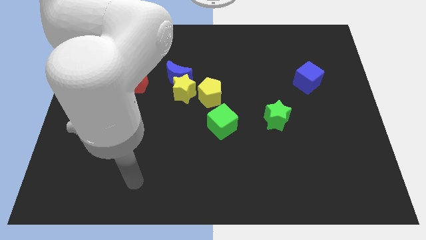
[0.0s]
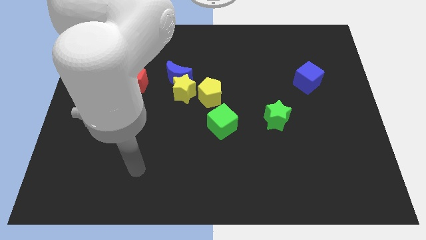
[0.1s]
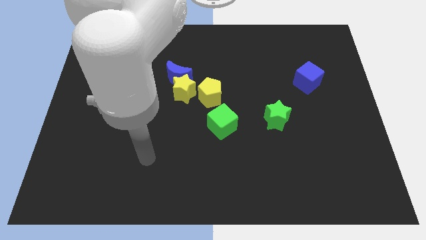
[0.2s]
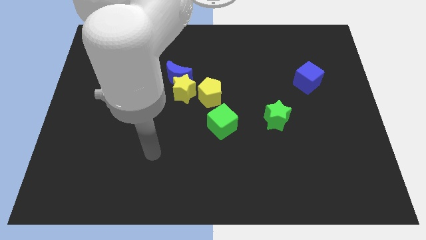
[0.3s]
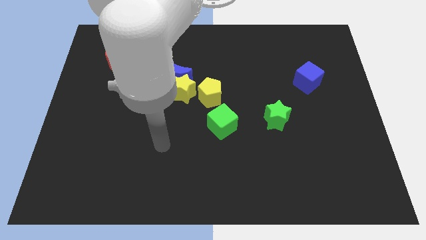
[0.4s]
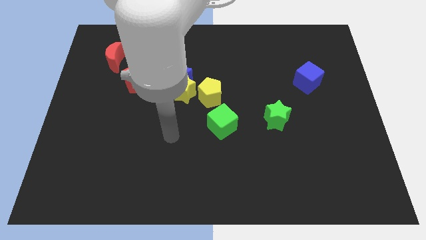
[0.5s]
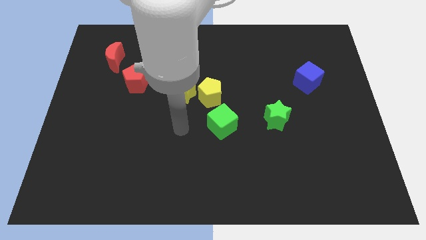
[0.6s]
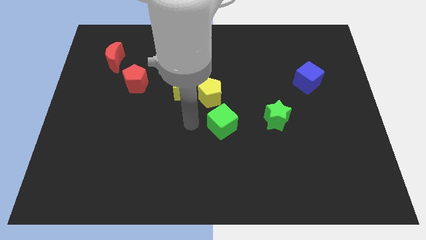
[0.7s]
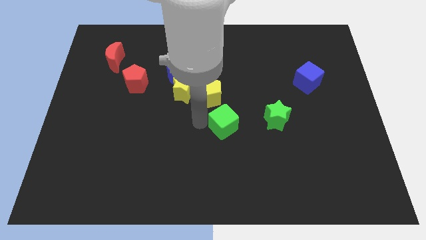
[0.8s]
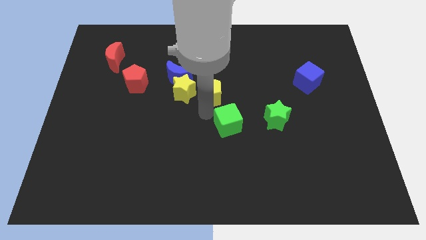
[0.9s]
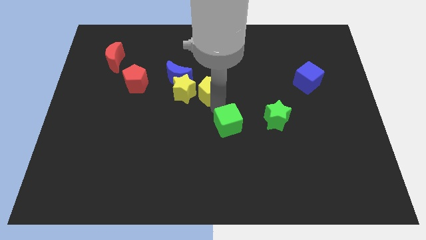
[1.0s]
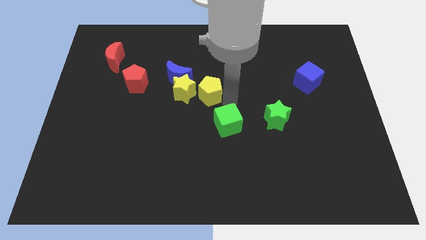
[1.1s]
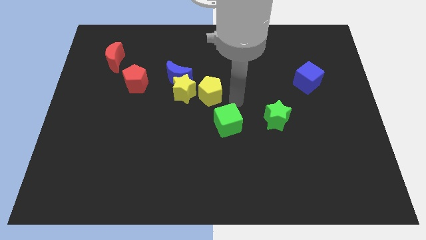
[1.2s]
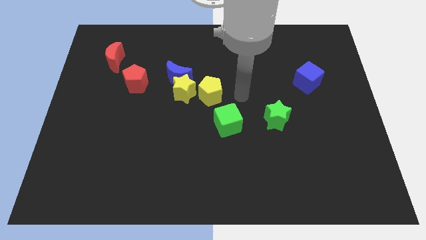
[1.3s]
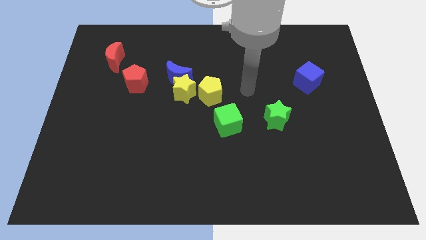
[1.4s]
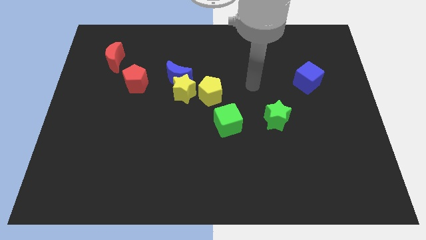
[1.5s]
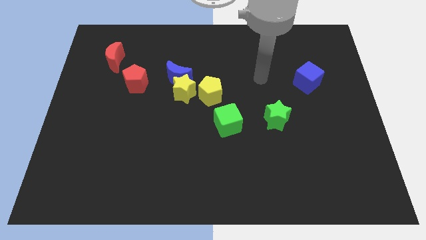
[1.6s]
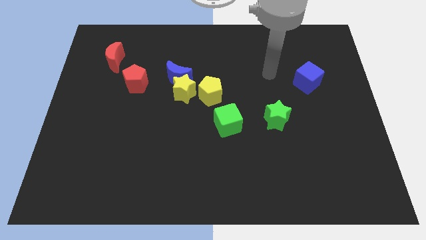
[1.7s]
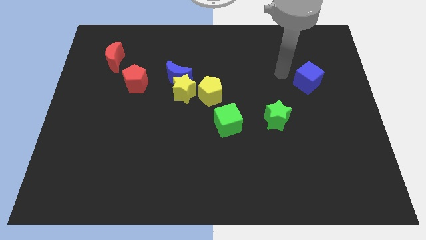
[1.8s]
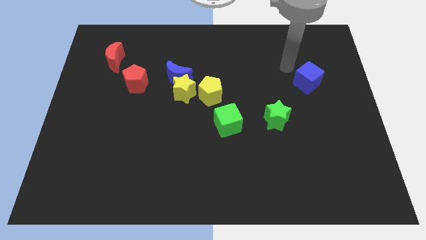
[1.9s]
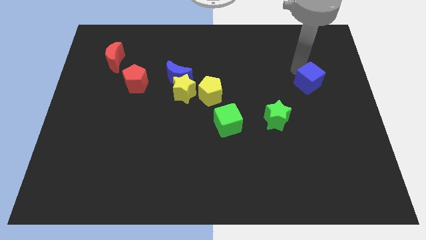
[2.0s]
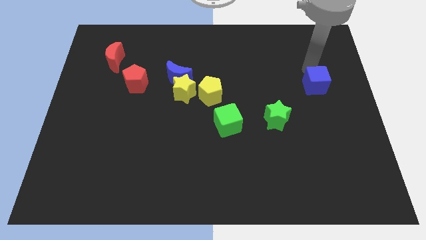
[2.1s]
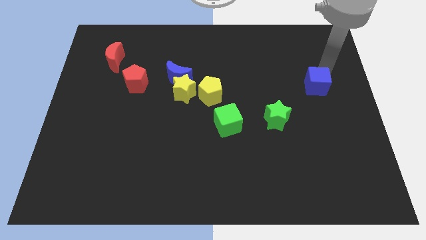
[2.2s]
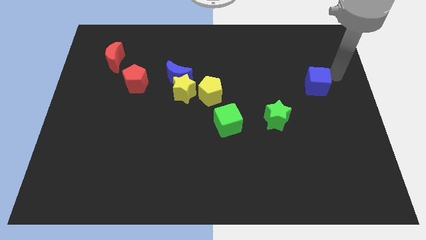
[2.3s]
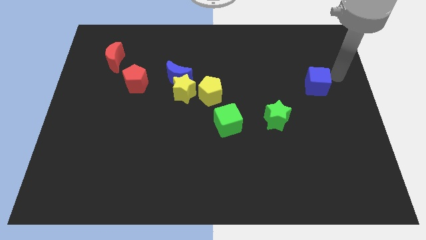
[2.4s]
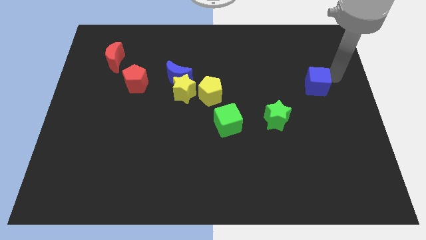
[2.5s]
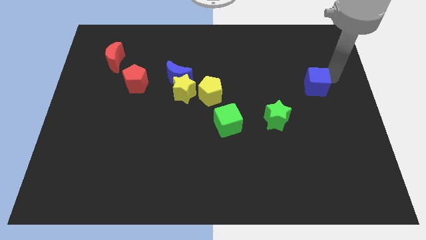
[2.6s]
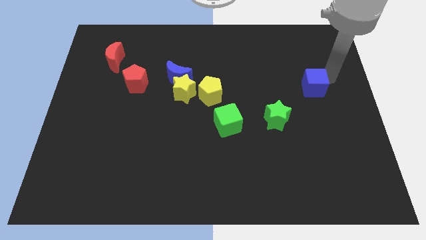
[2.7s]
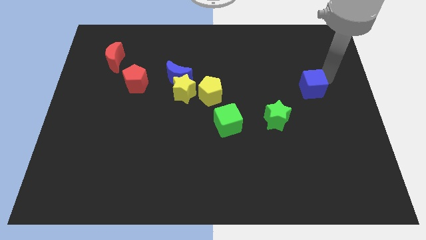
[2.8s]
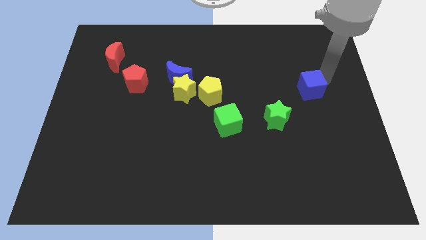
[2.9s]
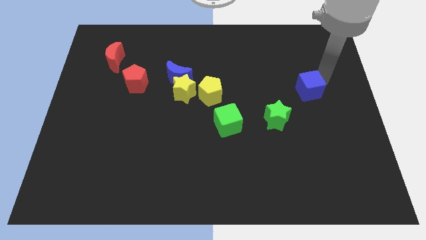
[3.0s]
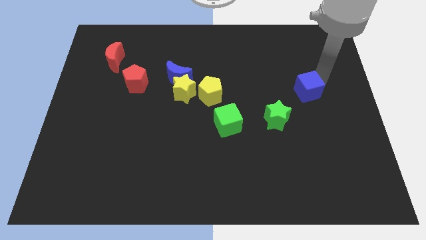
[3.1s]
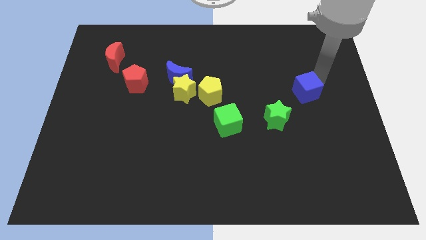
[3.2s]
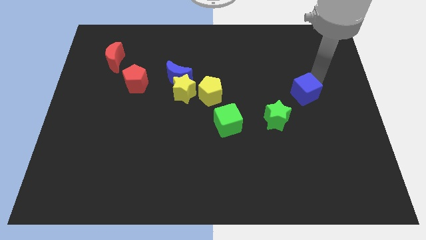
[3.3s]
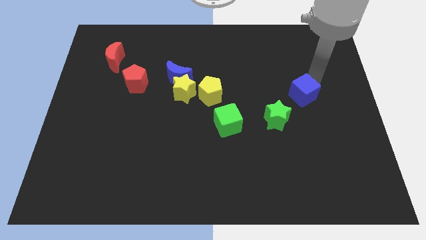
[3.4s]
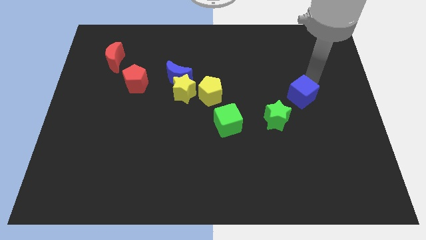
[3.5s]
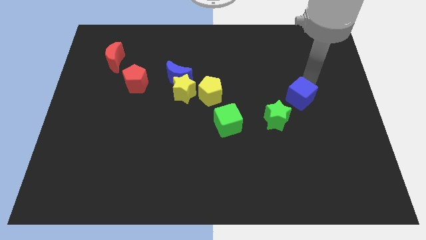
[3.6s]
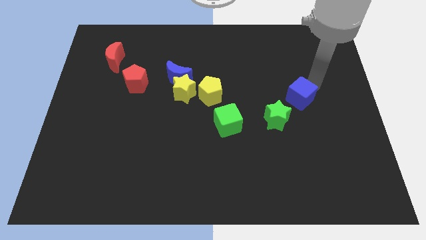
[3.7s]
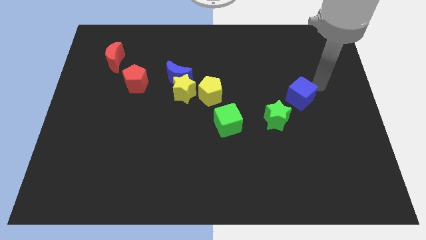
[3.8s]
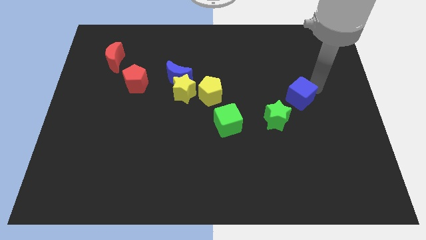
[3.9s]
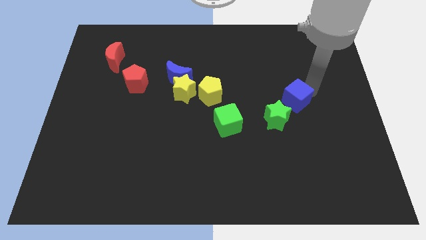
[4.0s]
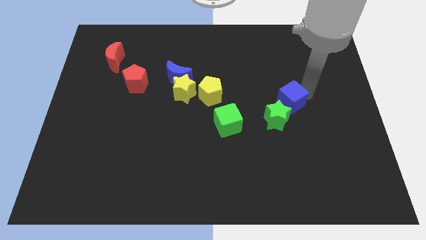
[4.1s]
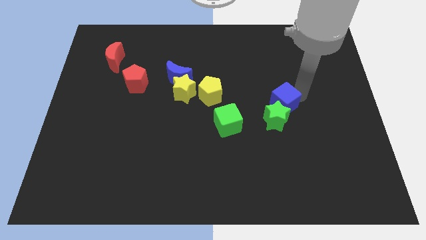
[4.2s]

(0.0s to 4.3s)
put the blue cube close to the green star

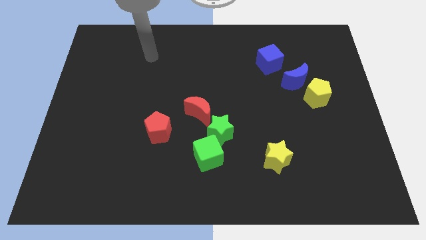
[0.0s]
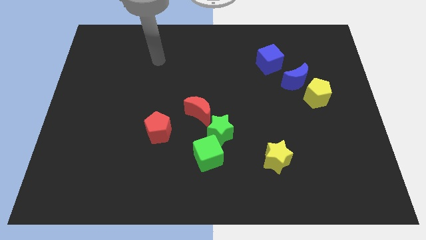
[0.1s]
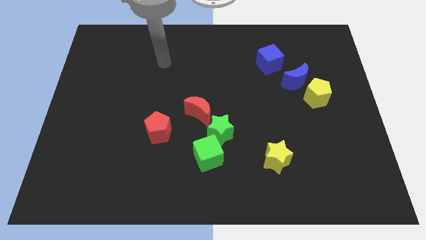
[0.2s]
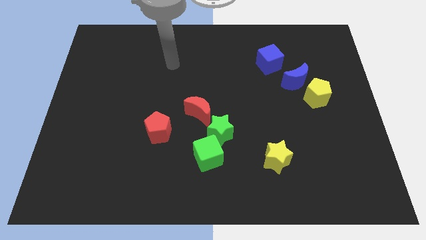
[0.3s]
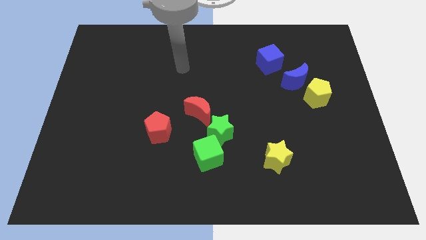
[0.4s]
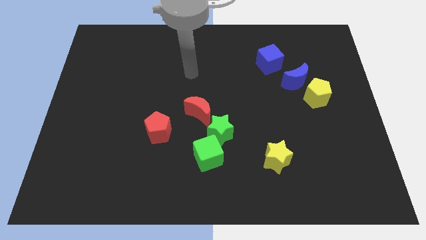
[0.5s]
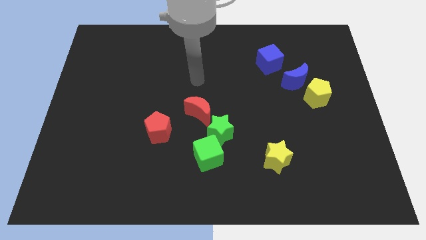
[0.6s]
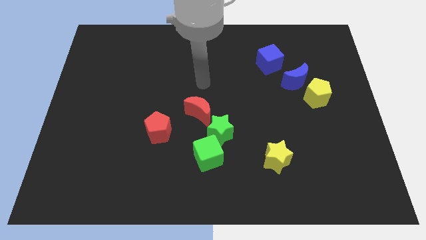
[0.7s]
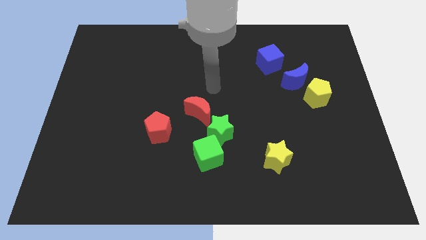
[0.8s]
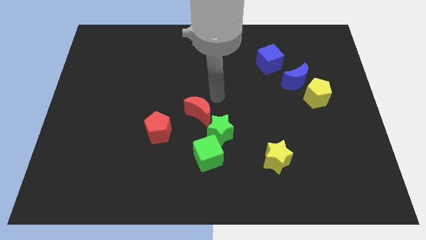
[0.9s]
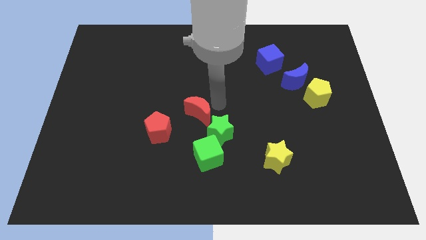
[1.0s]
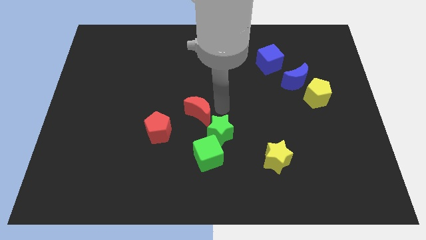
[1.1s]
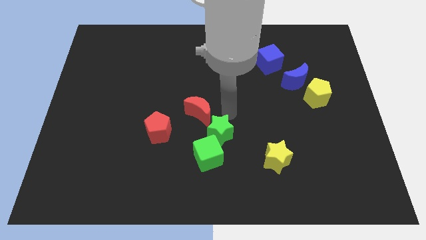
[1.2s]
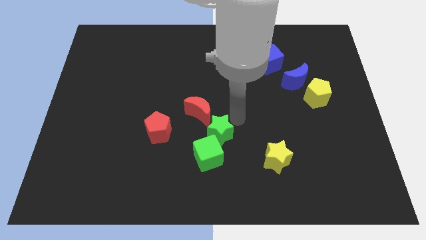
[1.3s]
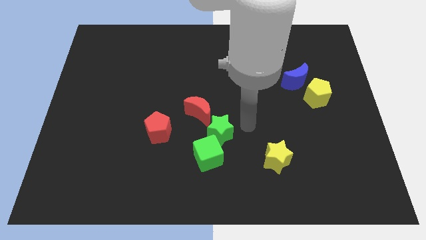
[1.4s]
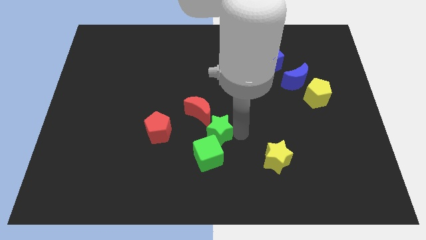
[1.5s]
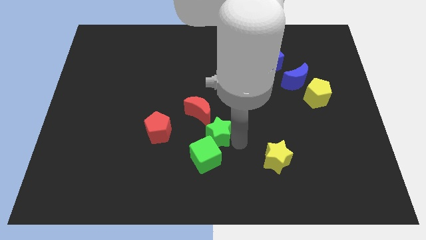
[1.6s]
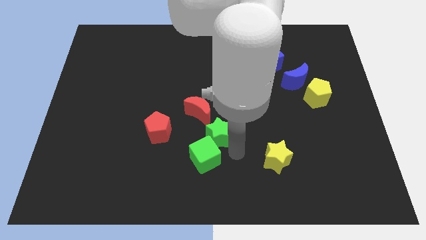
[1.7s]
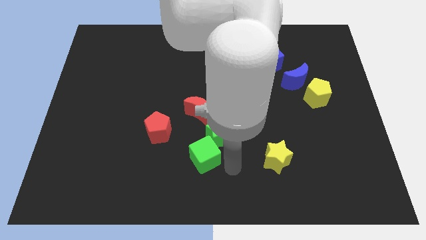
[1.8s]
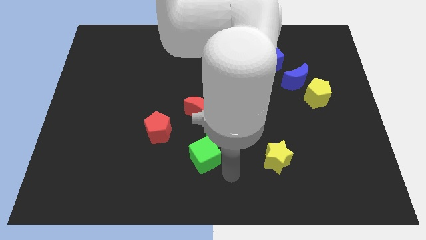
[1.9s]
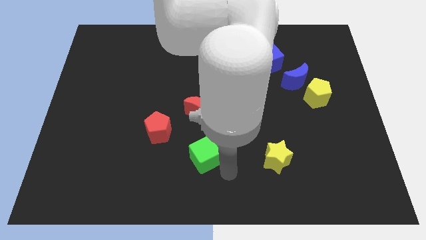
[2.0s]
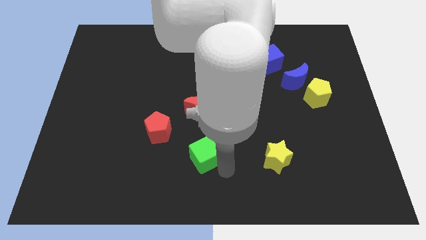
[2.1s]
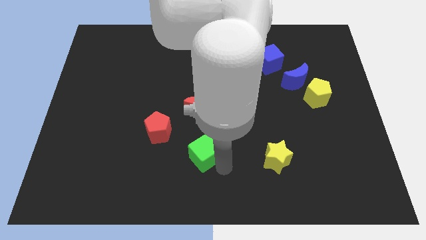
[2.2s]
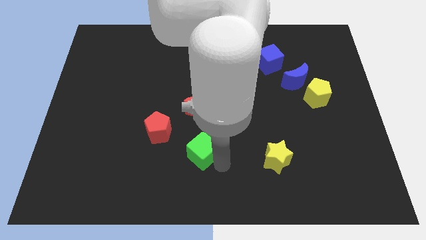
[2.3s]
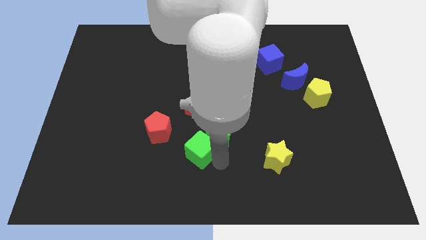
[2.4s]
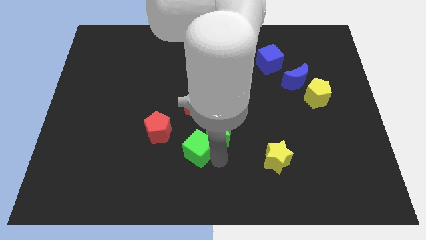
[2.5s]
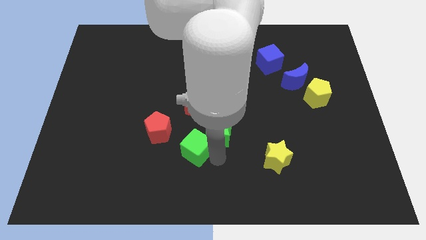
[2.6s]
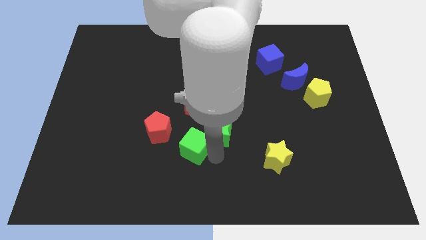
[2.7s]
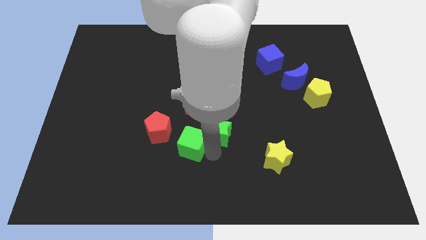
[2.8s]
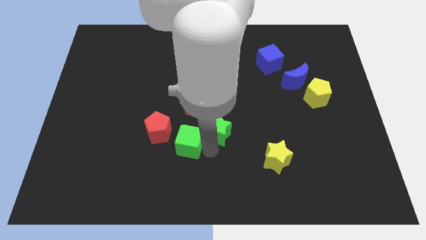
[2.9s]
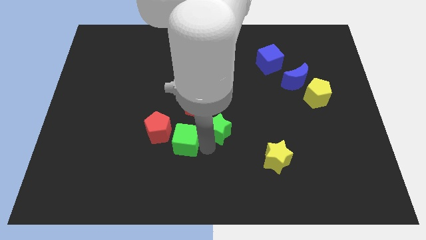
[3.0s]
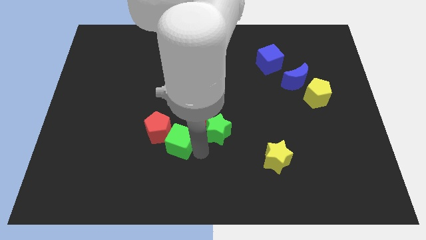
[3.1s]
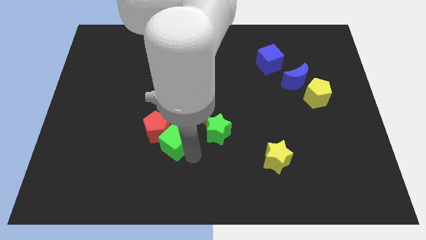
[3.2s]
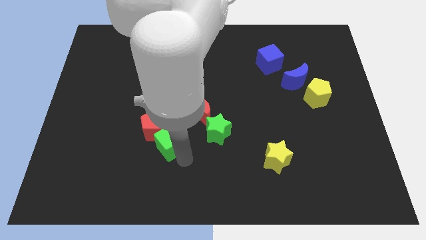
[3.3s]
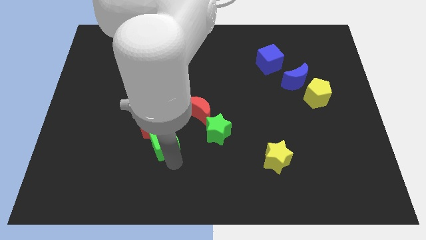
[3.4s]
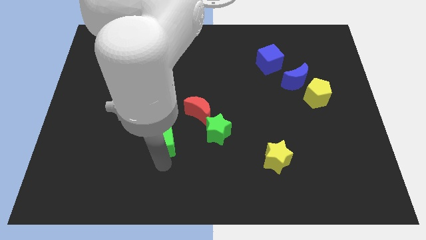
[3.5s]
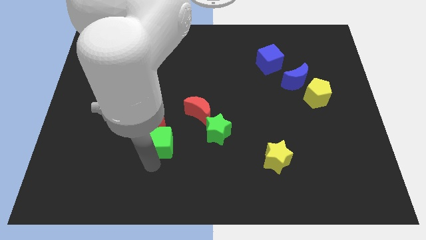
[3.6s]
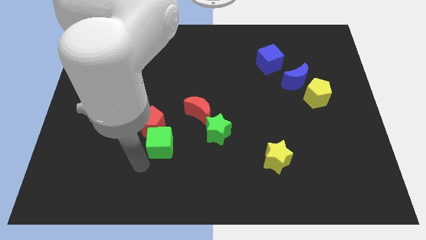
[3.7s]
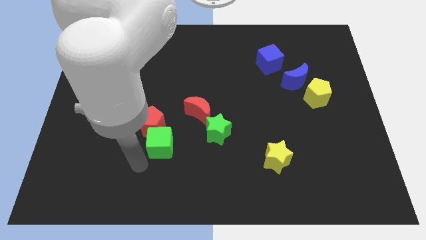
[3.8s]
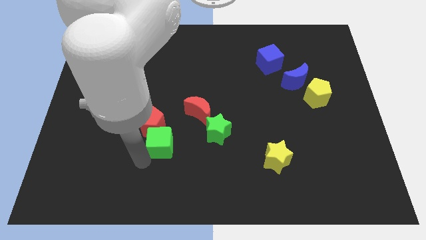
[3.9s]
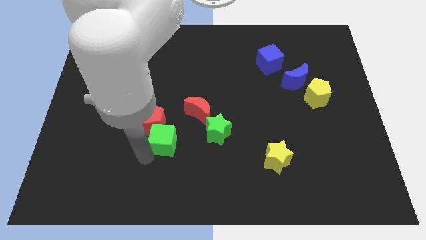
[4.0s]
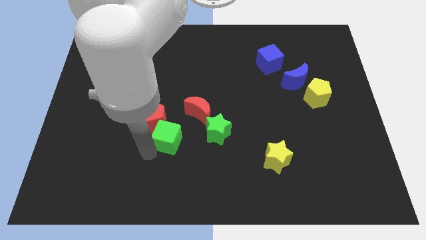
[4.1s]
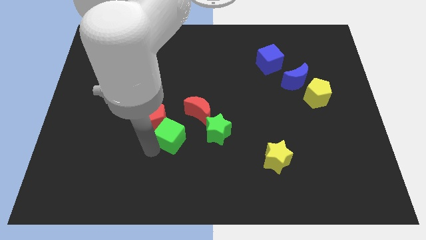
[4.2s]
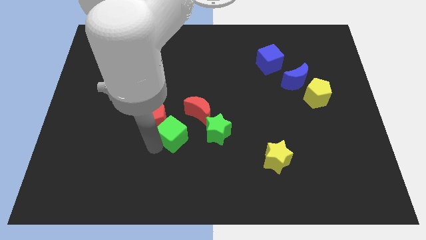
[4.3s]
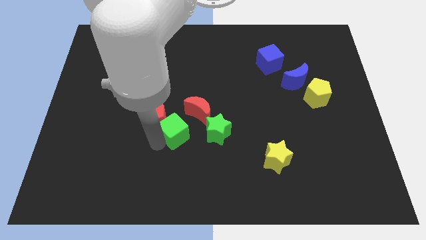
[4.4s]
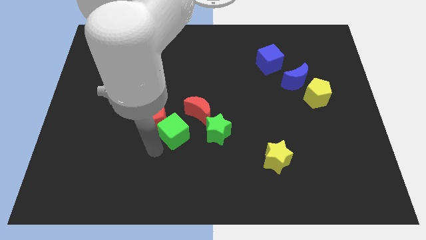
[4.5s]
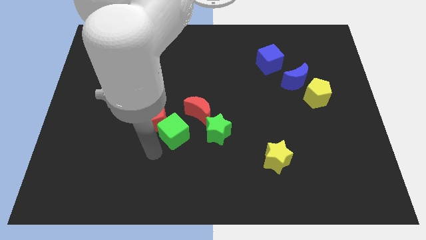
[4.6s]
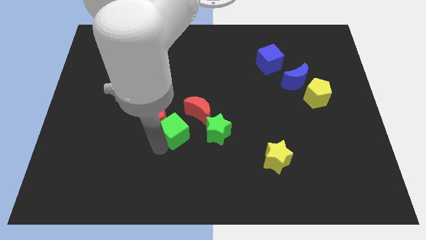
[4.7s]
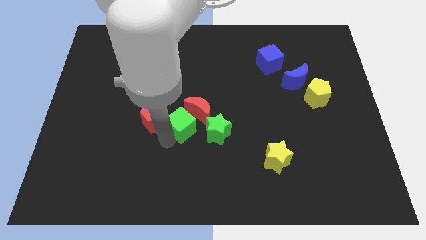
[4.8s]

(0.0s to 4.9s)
slide the green cube to the red moon
